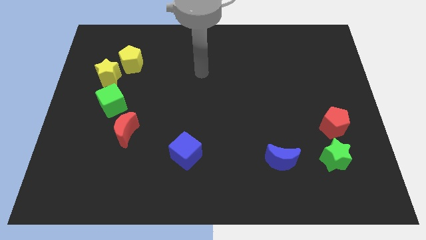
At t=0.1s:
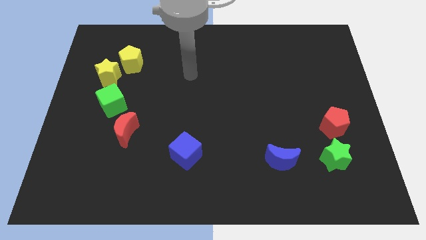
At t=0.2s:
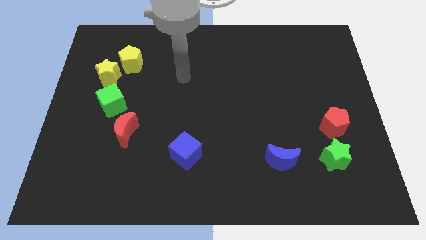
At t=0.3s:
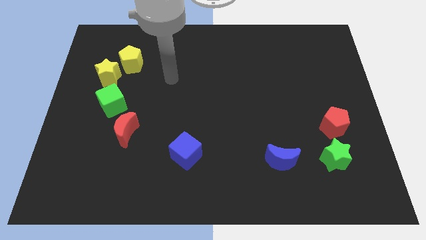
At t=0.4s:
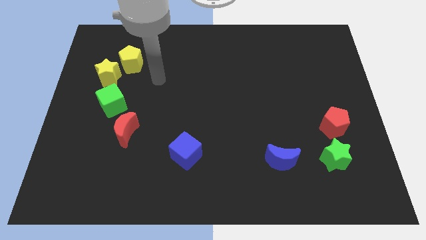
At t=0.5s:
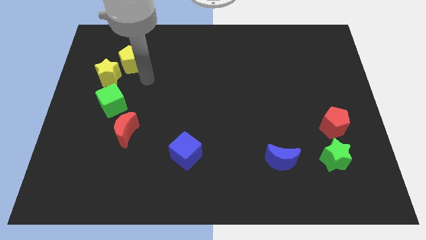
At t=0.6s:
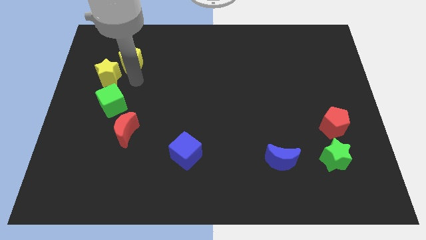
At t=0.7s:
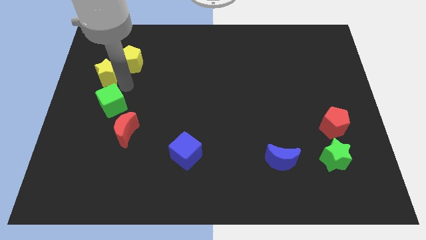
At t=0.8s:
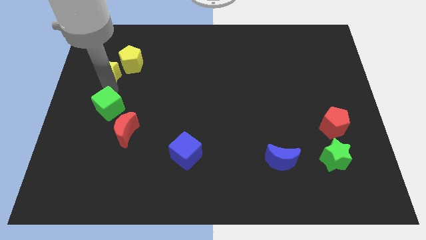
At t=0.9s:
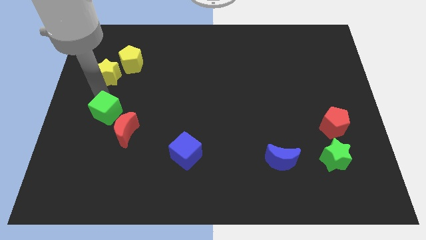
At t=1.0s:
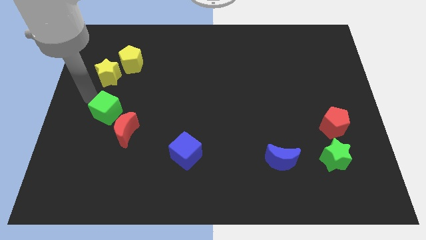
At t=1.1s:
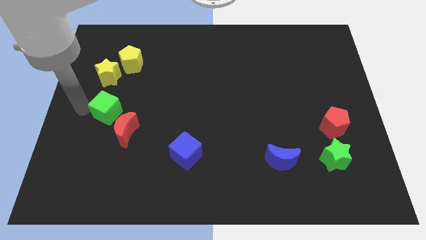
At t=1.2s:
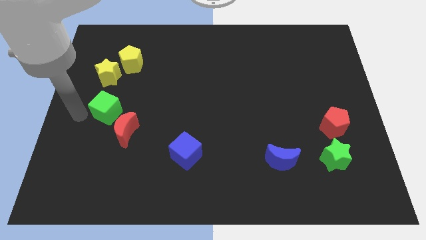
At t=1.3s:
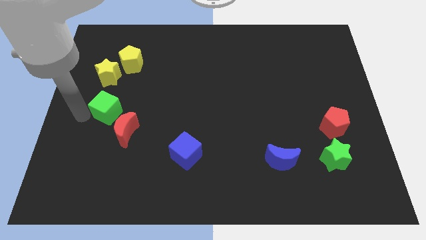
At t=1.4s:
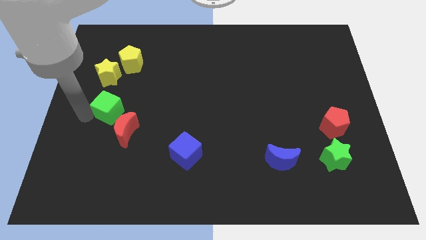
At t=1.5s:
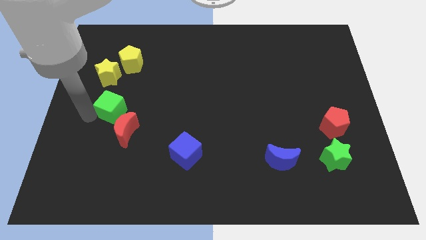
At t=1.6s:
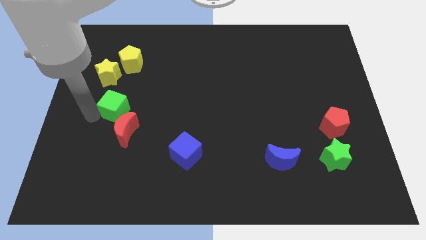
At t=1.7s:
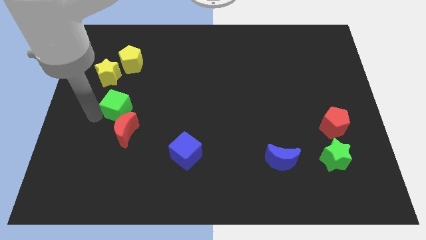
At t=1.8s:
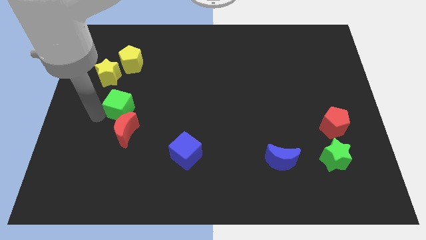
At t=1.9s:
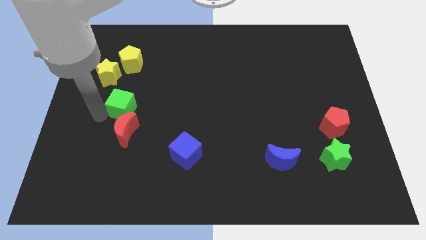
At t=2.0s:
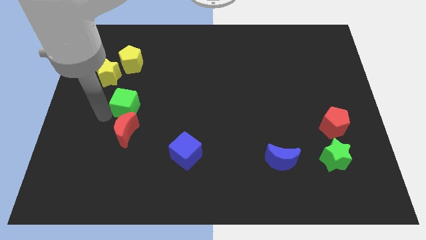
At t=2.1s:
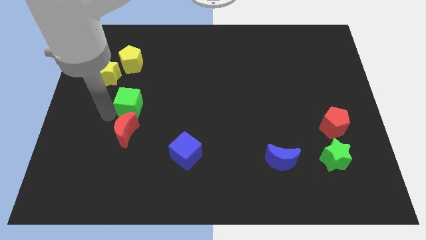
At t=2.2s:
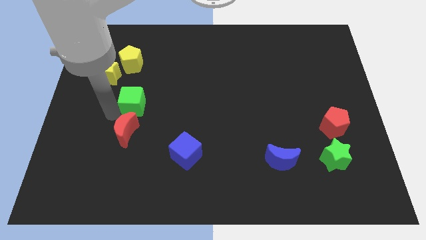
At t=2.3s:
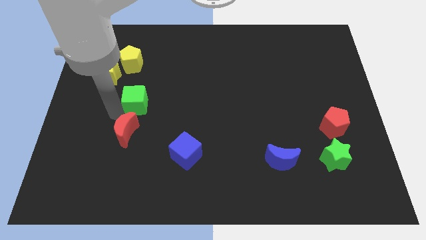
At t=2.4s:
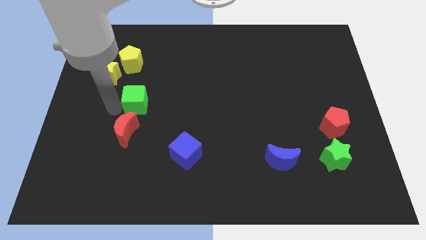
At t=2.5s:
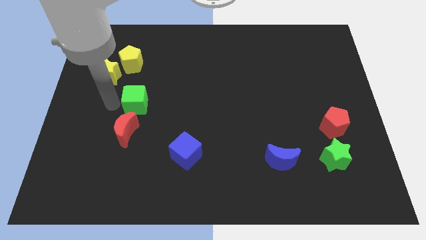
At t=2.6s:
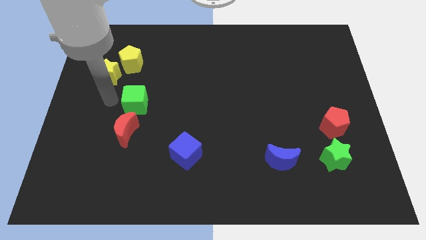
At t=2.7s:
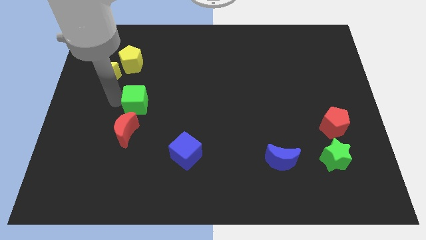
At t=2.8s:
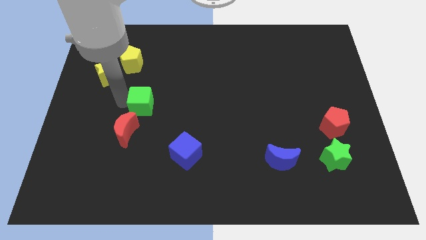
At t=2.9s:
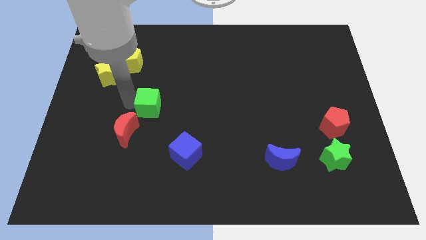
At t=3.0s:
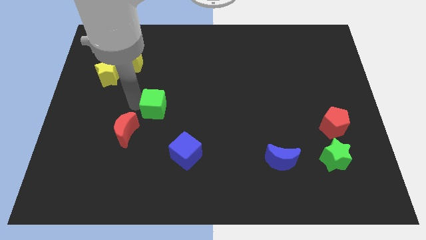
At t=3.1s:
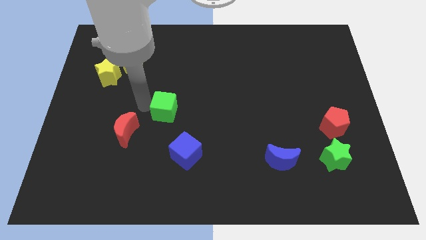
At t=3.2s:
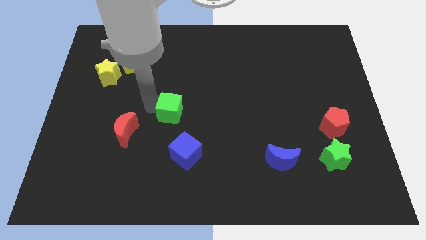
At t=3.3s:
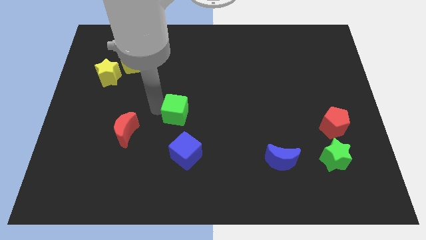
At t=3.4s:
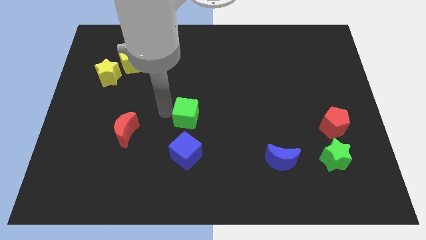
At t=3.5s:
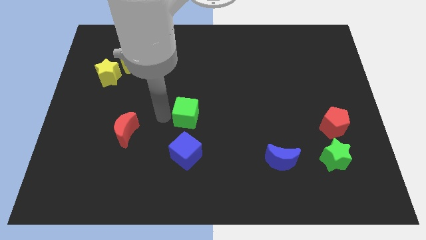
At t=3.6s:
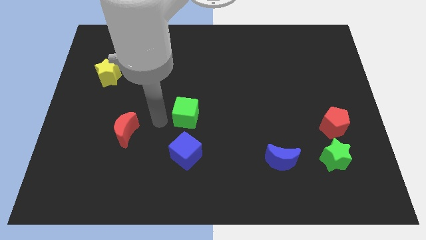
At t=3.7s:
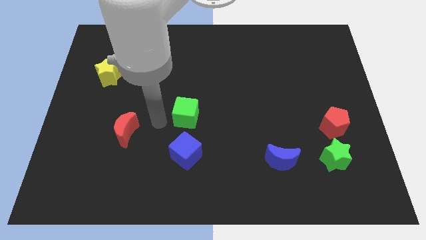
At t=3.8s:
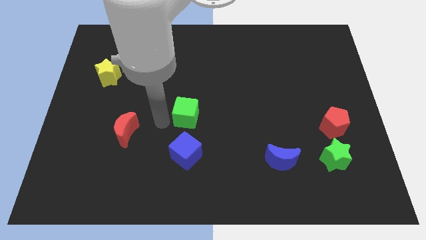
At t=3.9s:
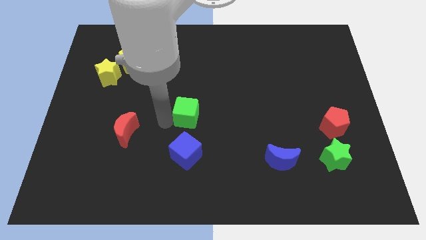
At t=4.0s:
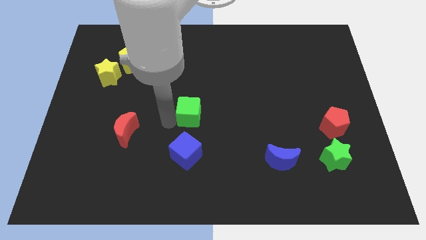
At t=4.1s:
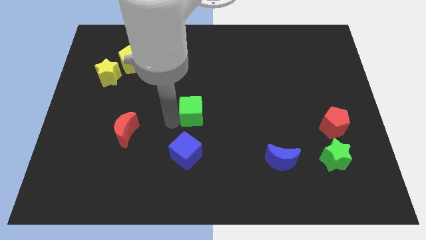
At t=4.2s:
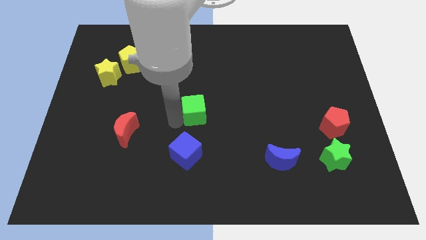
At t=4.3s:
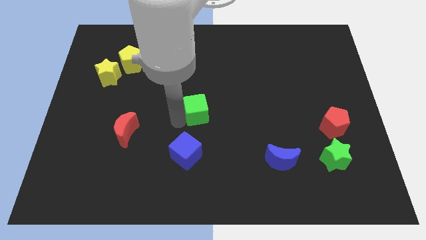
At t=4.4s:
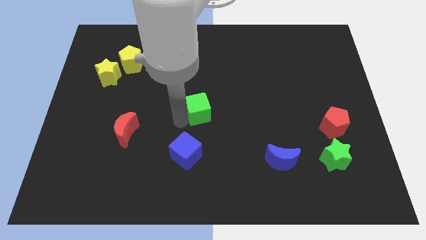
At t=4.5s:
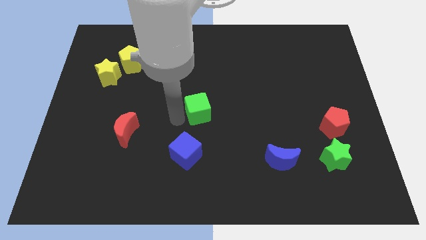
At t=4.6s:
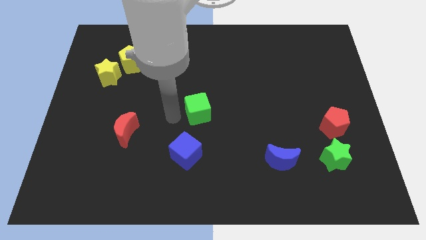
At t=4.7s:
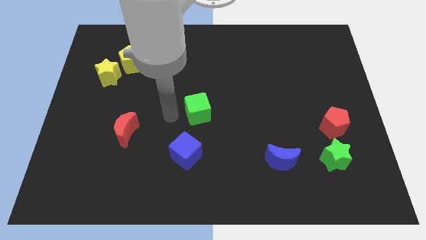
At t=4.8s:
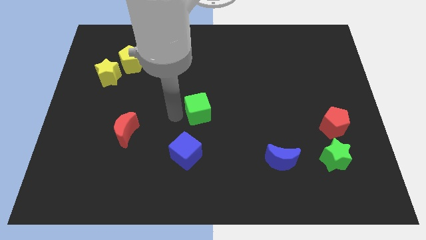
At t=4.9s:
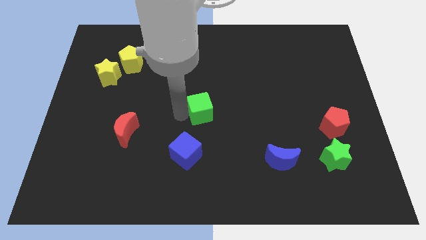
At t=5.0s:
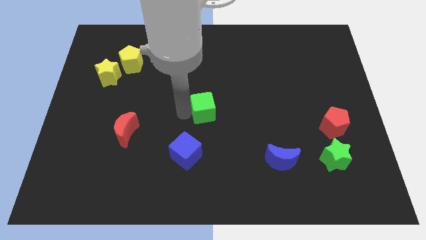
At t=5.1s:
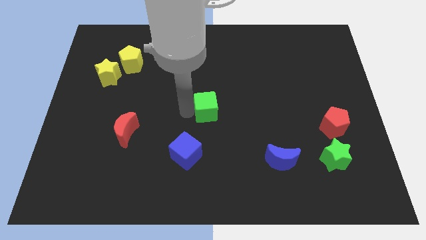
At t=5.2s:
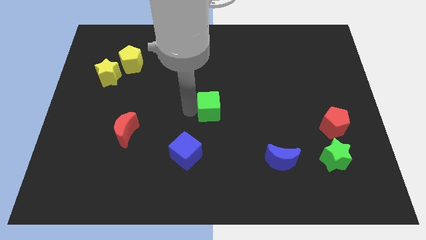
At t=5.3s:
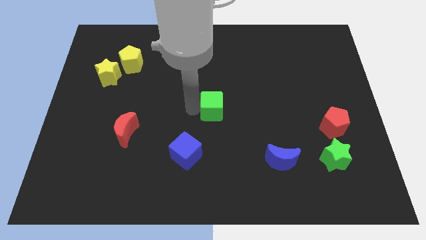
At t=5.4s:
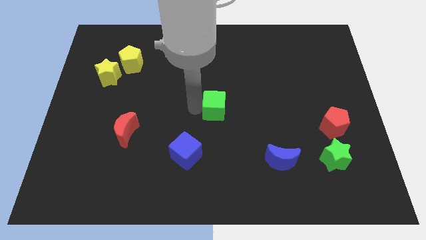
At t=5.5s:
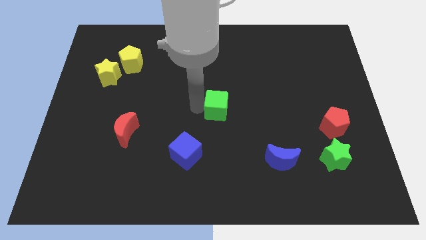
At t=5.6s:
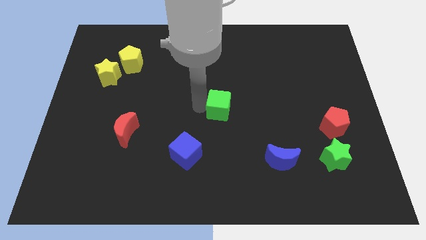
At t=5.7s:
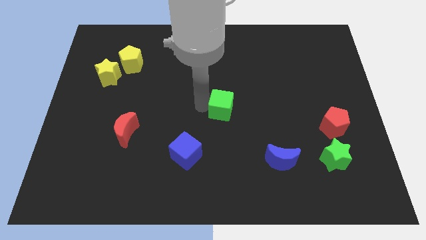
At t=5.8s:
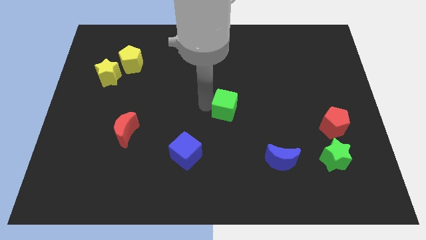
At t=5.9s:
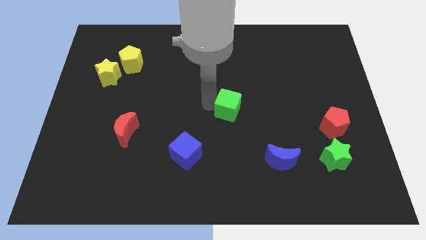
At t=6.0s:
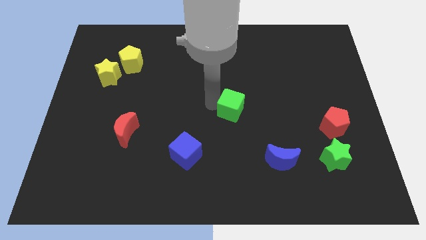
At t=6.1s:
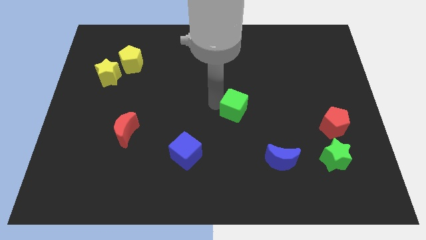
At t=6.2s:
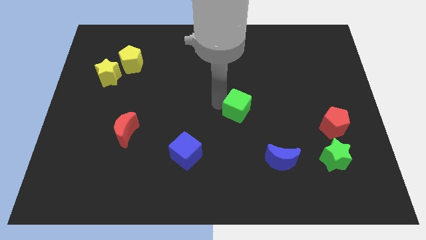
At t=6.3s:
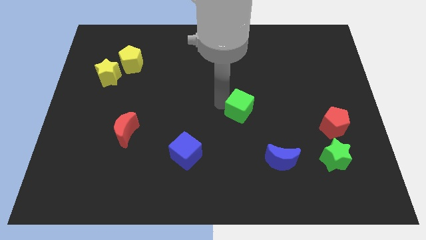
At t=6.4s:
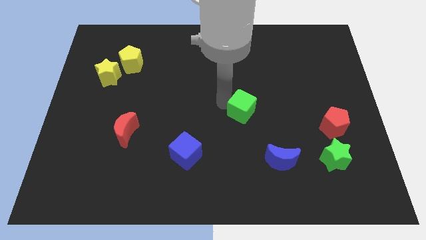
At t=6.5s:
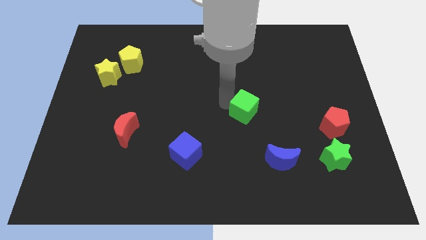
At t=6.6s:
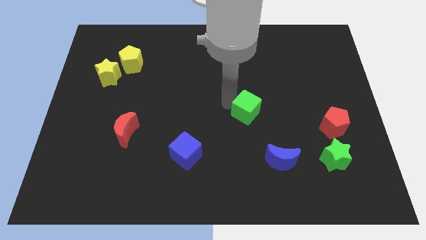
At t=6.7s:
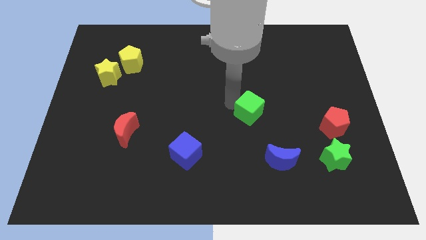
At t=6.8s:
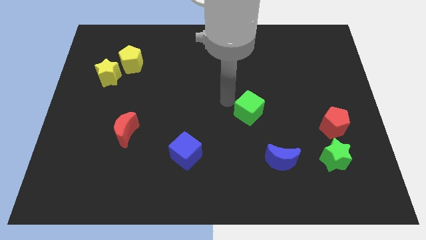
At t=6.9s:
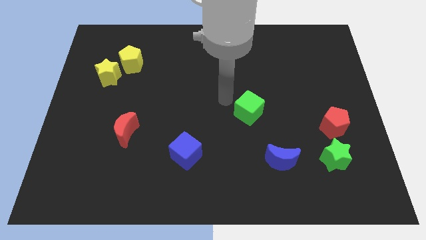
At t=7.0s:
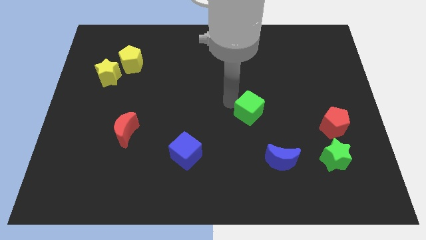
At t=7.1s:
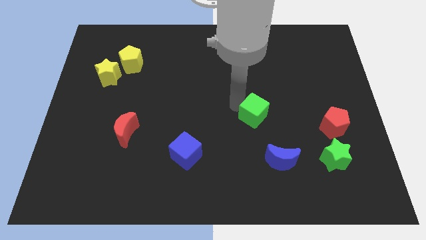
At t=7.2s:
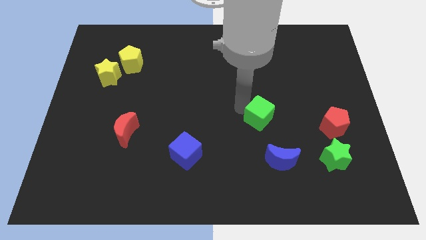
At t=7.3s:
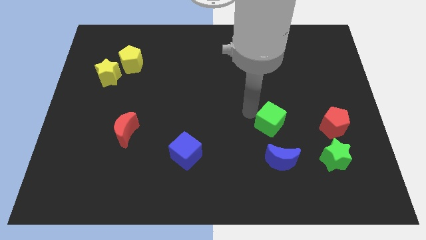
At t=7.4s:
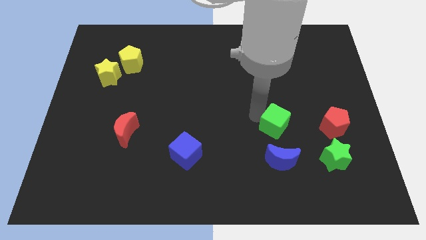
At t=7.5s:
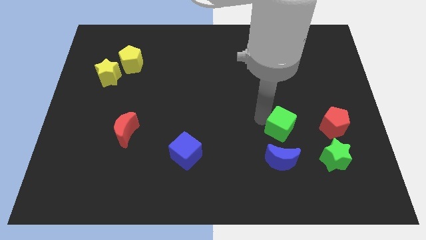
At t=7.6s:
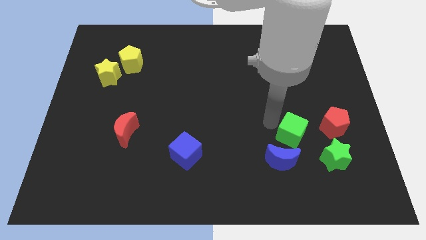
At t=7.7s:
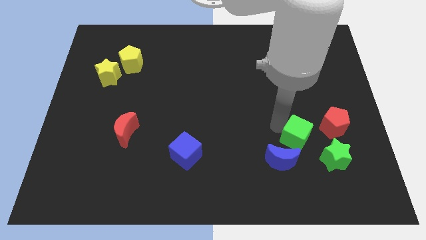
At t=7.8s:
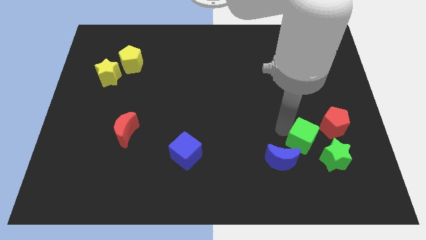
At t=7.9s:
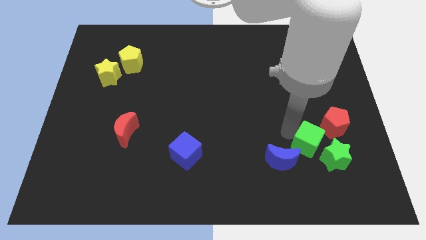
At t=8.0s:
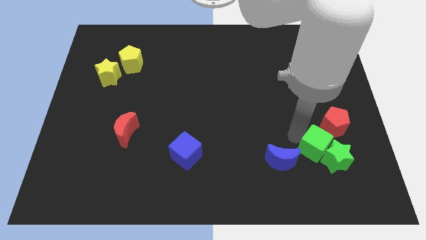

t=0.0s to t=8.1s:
put the green cube towards the green star

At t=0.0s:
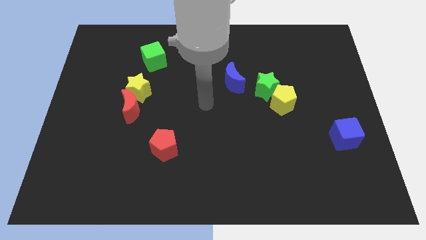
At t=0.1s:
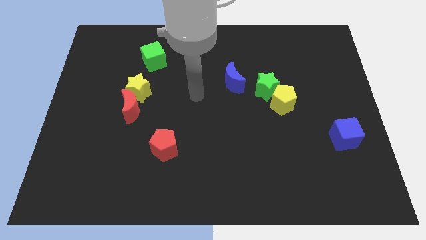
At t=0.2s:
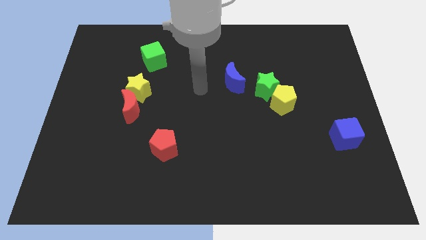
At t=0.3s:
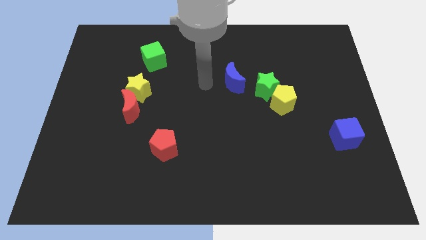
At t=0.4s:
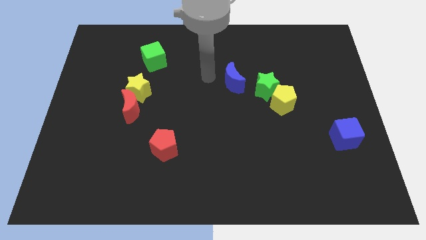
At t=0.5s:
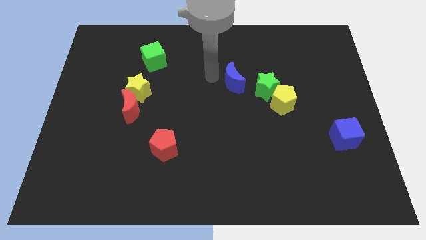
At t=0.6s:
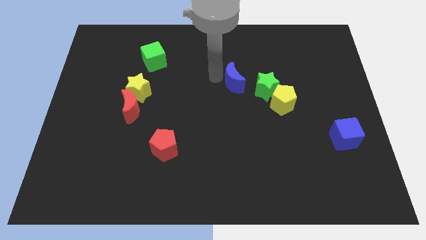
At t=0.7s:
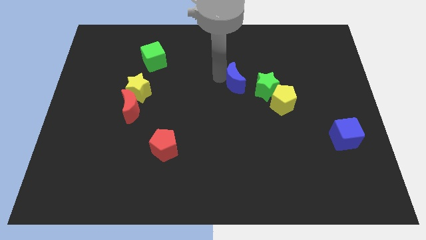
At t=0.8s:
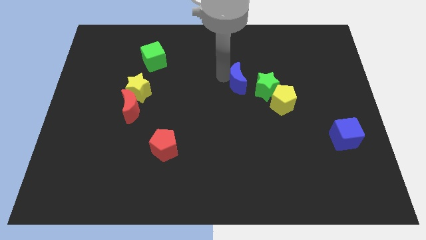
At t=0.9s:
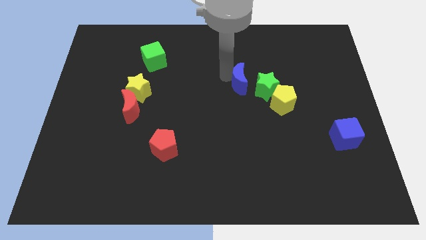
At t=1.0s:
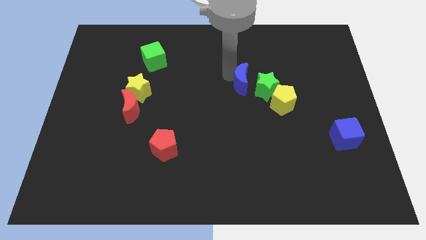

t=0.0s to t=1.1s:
put the blue moon next to the green star
